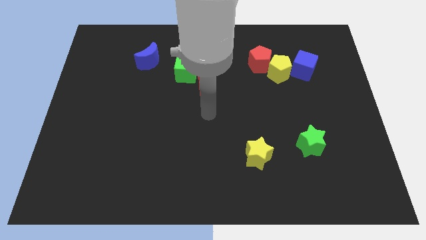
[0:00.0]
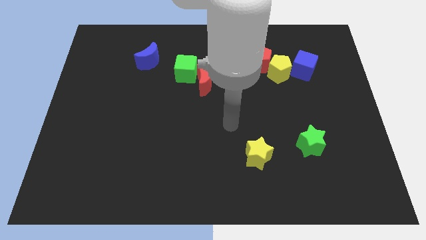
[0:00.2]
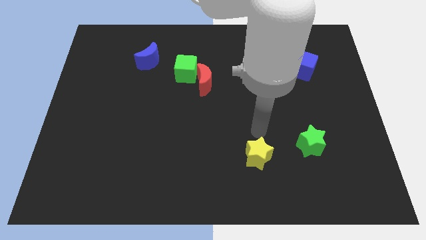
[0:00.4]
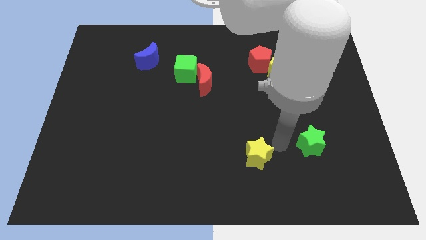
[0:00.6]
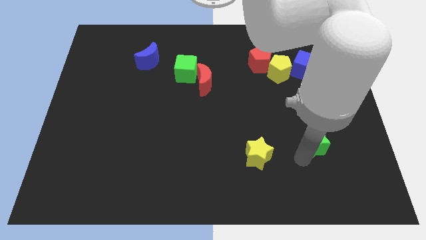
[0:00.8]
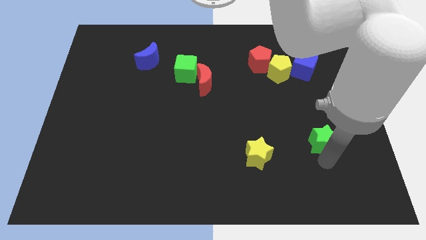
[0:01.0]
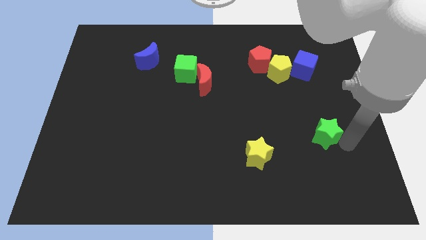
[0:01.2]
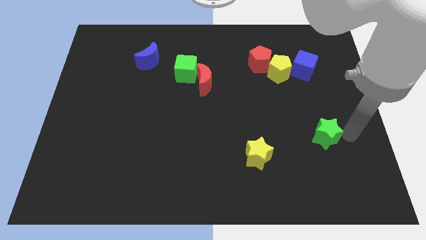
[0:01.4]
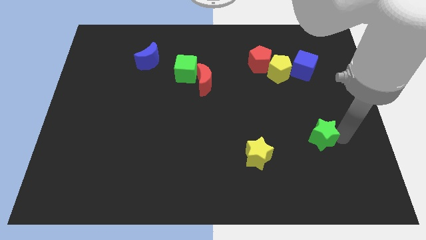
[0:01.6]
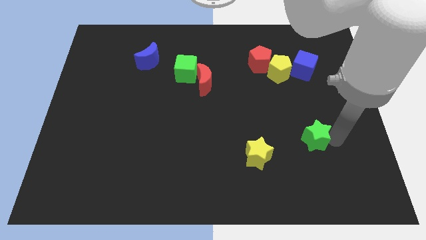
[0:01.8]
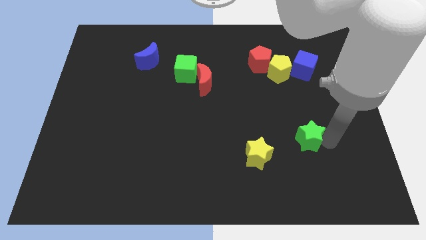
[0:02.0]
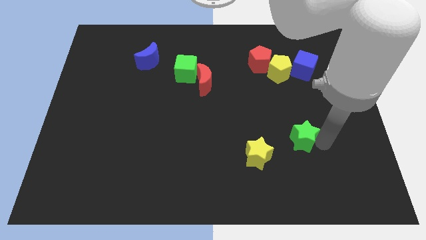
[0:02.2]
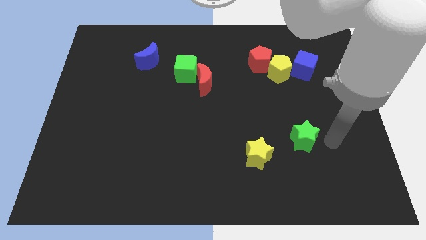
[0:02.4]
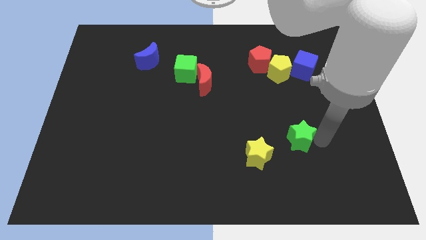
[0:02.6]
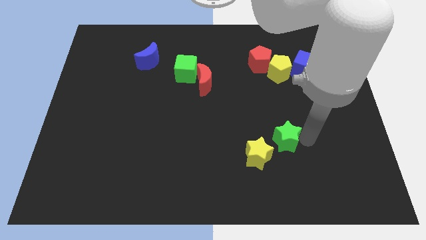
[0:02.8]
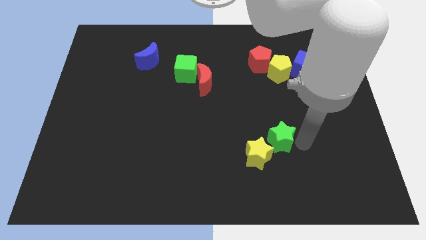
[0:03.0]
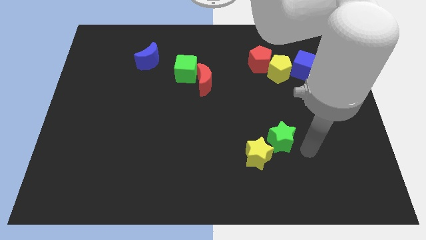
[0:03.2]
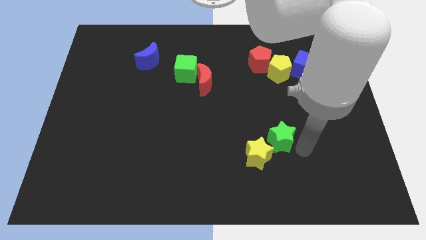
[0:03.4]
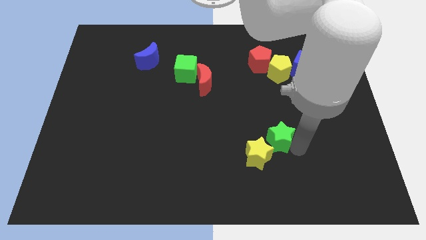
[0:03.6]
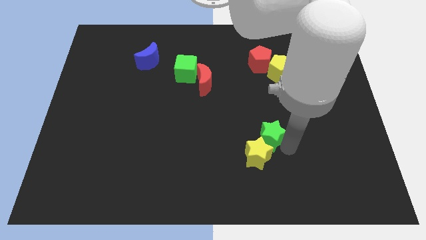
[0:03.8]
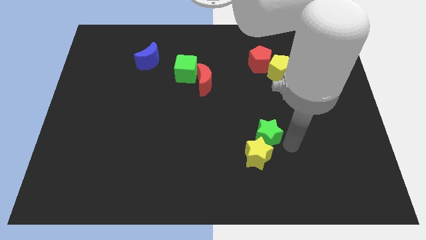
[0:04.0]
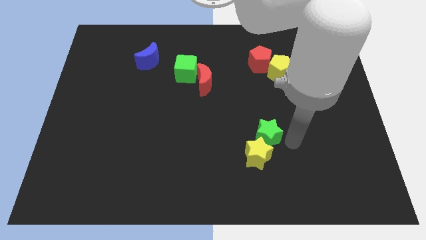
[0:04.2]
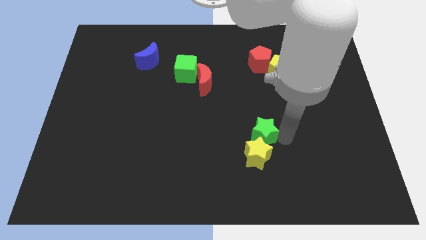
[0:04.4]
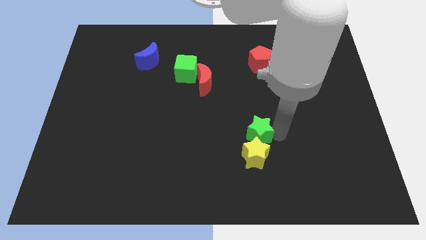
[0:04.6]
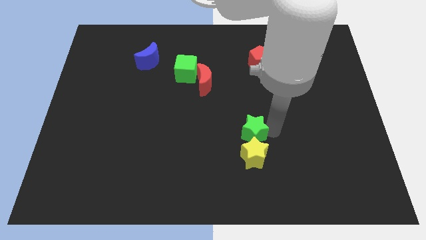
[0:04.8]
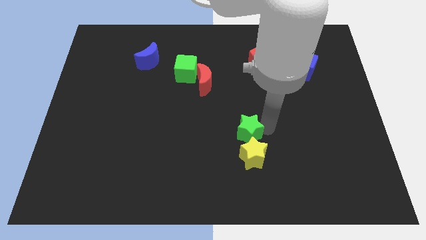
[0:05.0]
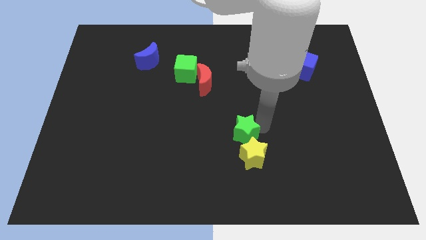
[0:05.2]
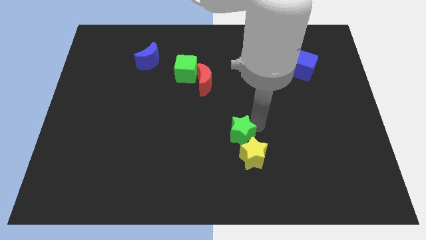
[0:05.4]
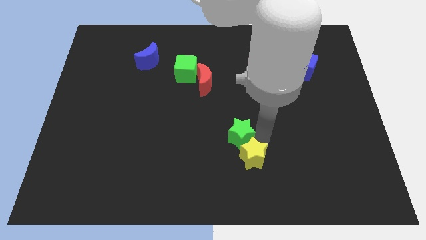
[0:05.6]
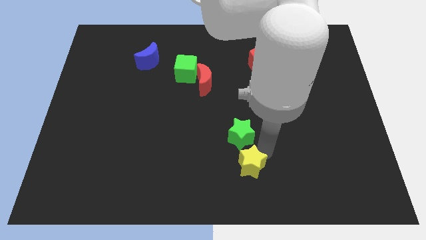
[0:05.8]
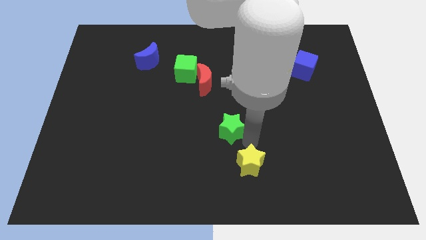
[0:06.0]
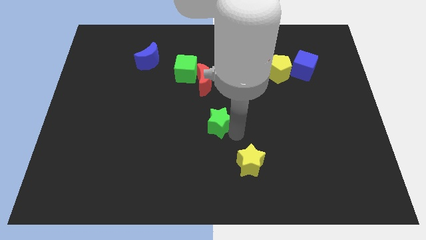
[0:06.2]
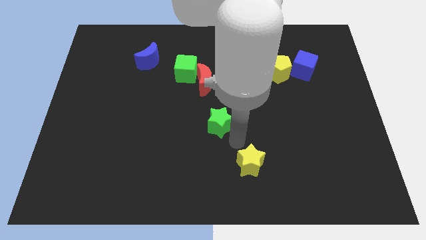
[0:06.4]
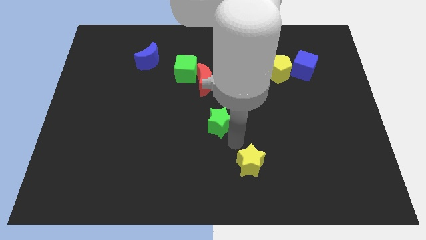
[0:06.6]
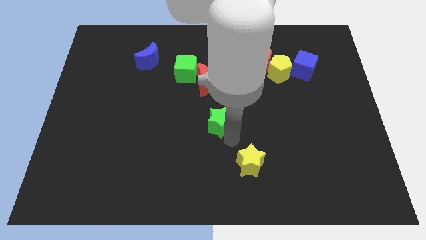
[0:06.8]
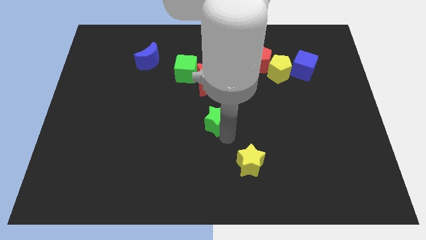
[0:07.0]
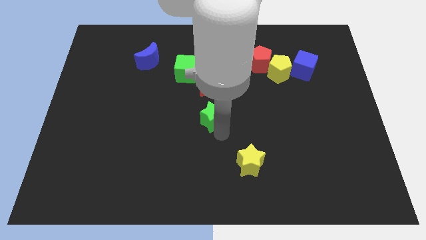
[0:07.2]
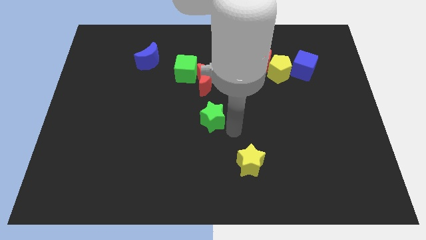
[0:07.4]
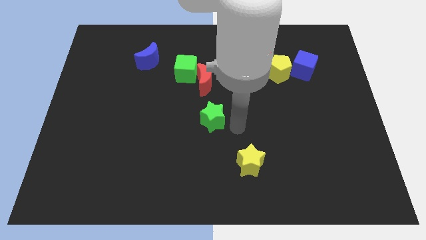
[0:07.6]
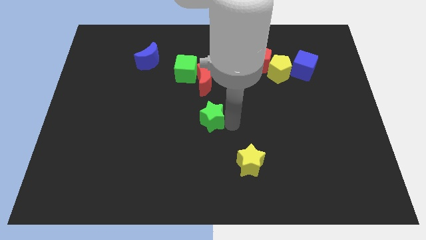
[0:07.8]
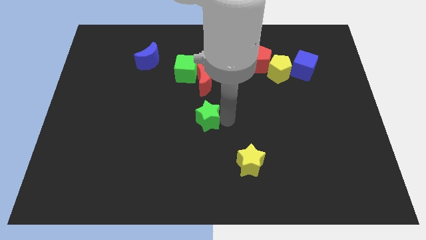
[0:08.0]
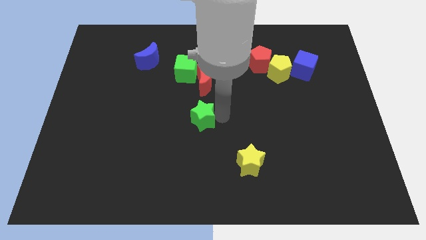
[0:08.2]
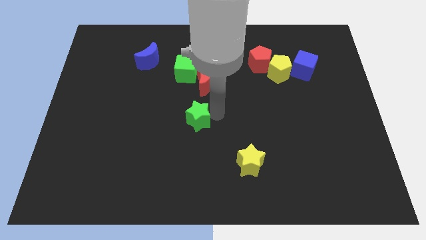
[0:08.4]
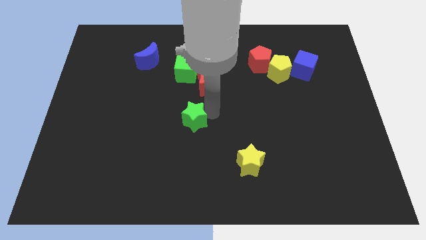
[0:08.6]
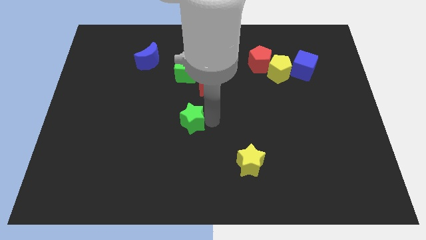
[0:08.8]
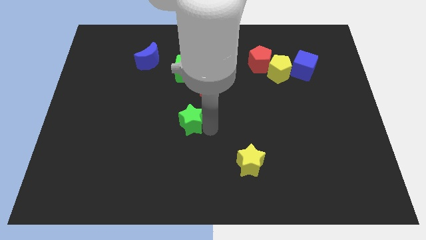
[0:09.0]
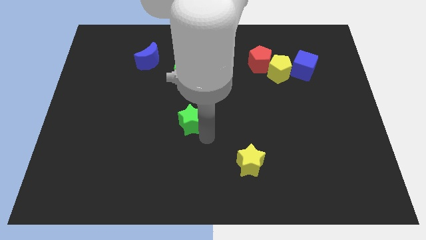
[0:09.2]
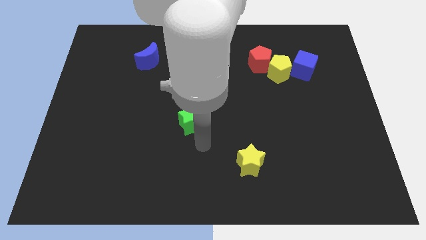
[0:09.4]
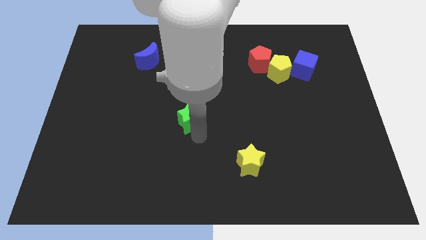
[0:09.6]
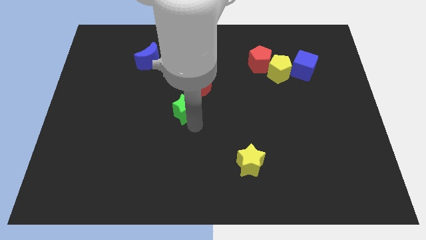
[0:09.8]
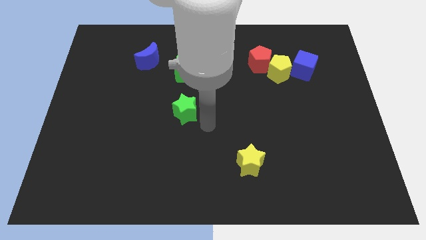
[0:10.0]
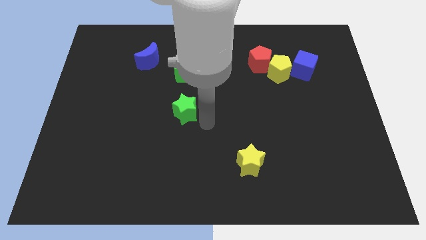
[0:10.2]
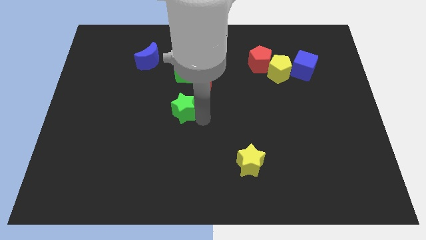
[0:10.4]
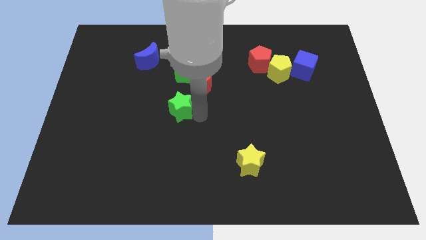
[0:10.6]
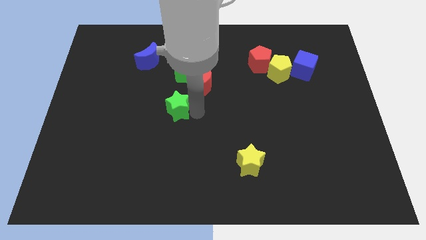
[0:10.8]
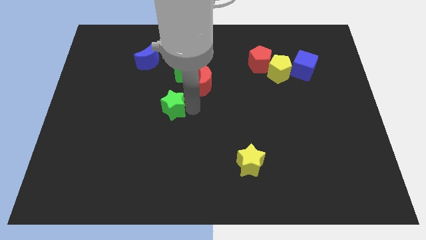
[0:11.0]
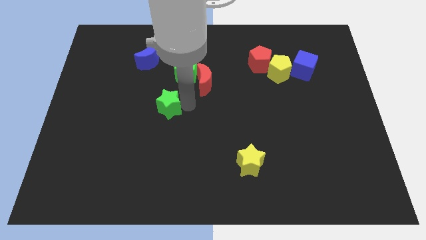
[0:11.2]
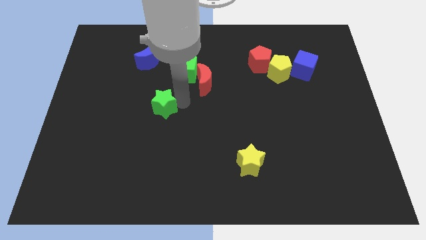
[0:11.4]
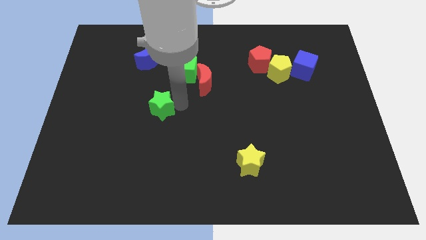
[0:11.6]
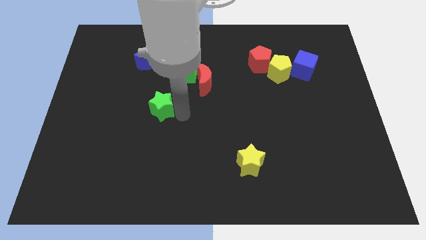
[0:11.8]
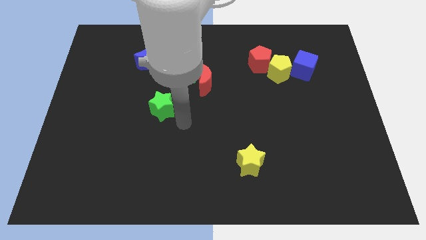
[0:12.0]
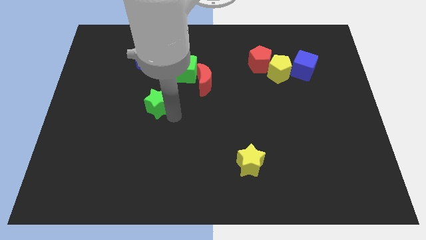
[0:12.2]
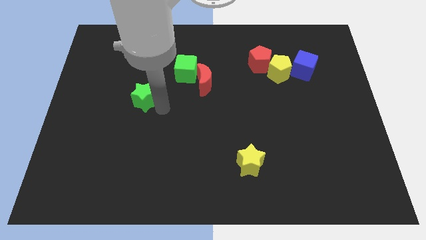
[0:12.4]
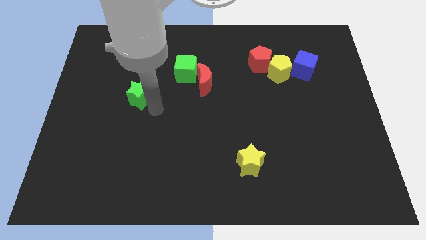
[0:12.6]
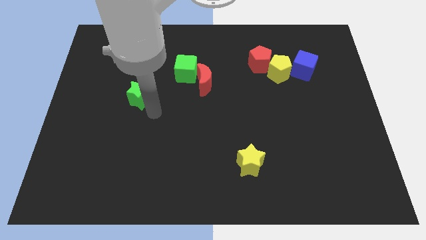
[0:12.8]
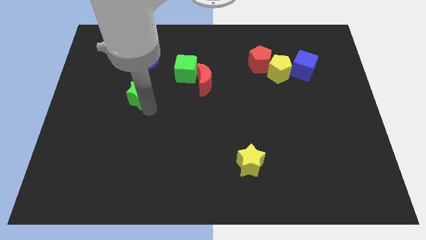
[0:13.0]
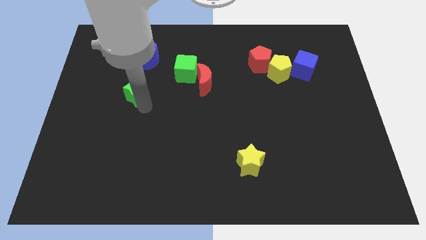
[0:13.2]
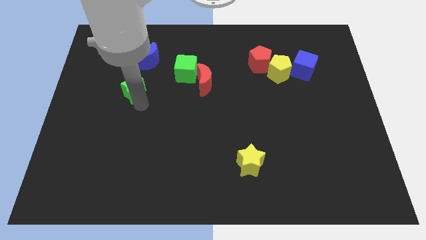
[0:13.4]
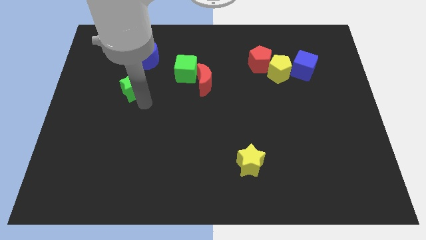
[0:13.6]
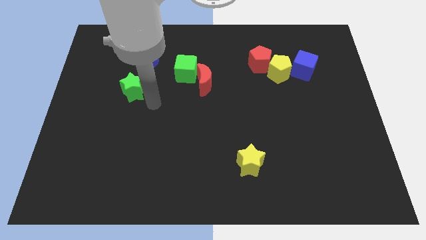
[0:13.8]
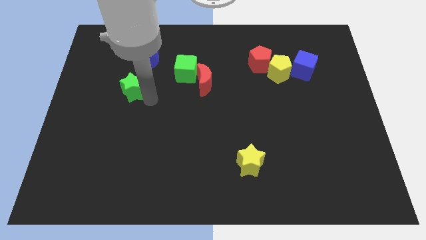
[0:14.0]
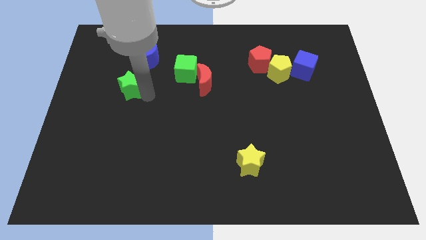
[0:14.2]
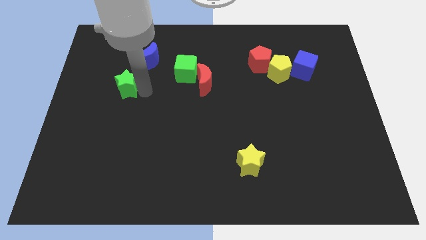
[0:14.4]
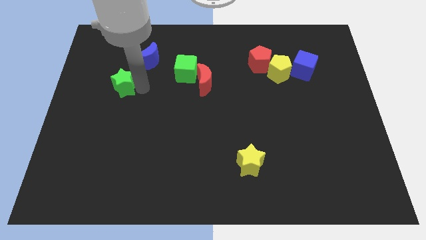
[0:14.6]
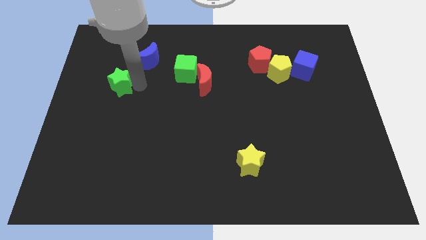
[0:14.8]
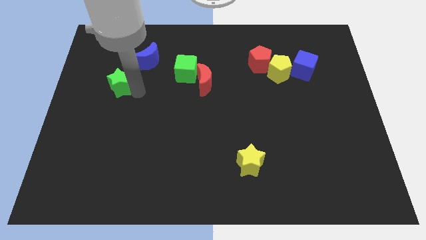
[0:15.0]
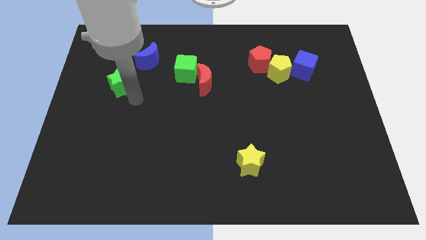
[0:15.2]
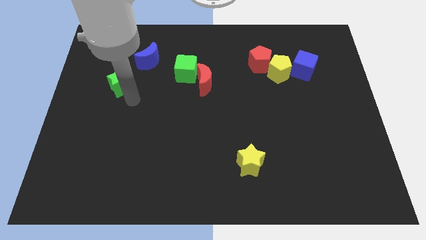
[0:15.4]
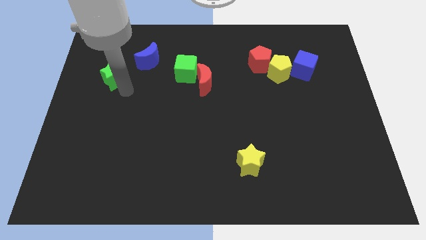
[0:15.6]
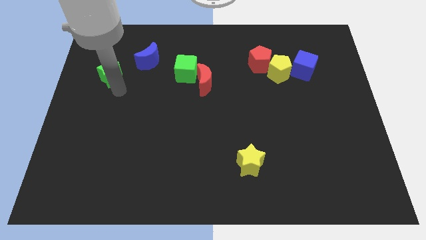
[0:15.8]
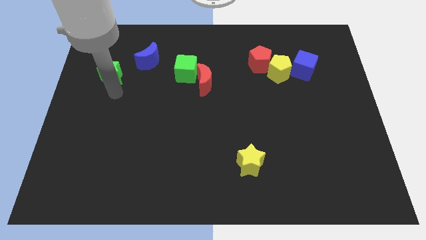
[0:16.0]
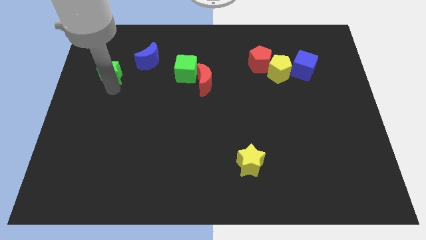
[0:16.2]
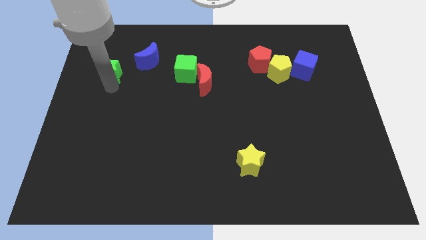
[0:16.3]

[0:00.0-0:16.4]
push the green star just left of the blue moon
